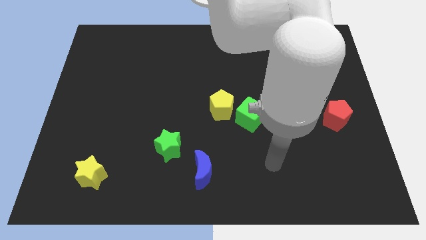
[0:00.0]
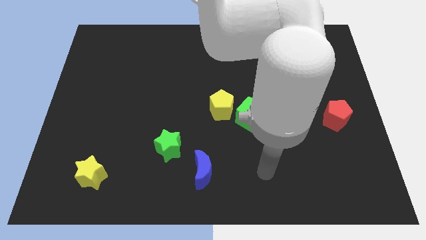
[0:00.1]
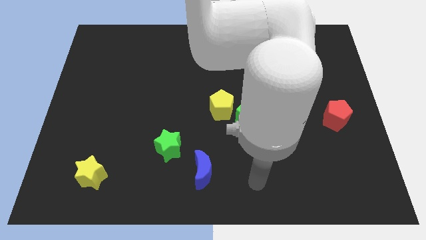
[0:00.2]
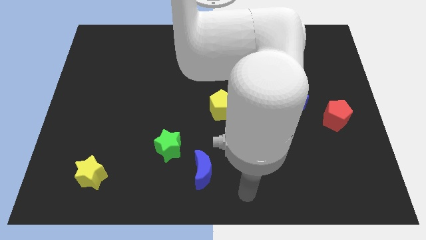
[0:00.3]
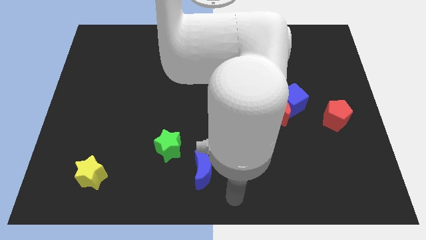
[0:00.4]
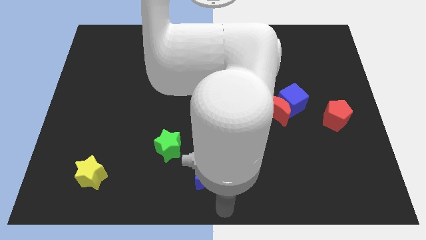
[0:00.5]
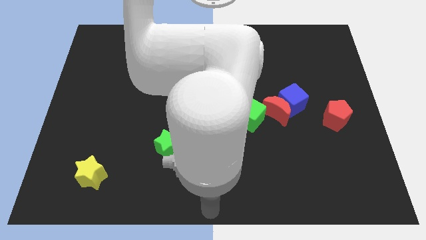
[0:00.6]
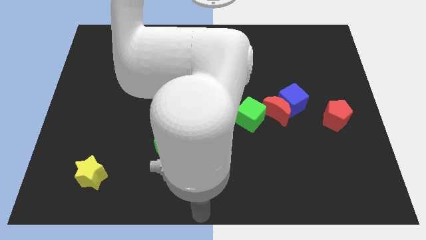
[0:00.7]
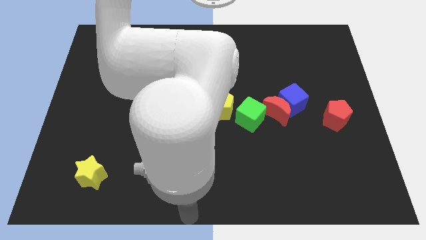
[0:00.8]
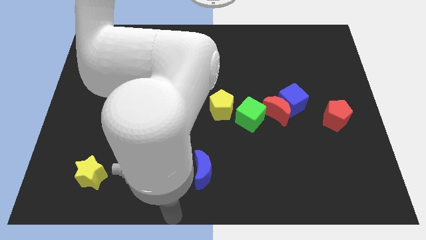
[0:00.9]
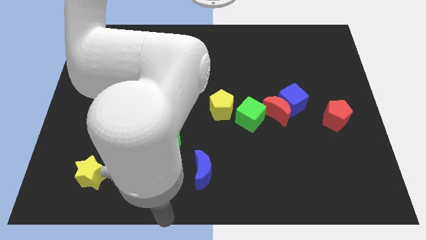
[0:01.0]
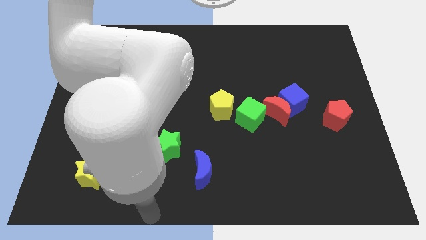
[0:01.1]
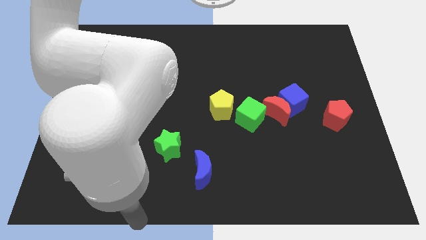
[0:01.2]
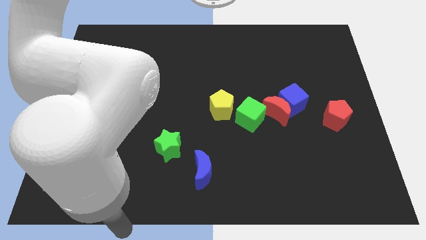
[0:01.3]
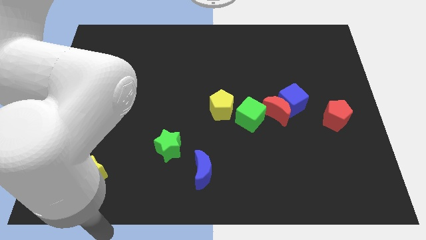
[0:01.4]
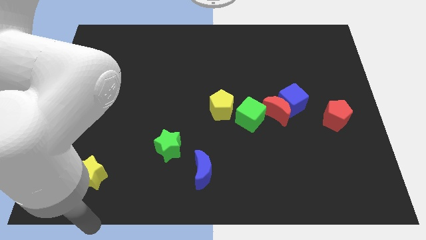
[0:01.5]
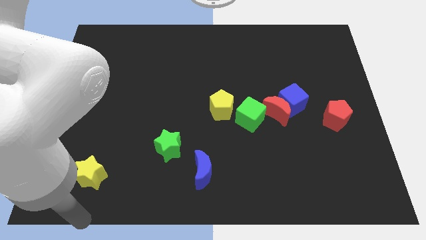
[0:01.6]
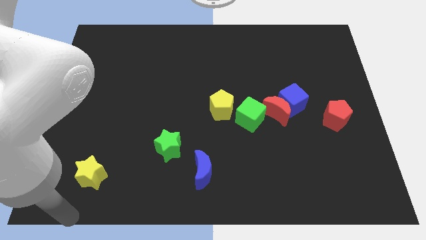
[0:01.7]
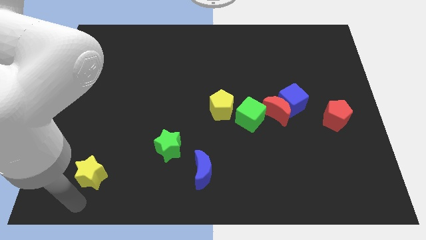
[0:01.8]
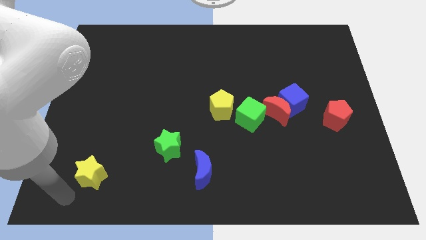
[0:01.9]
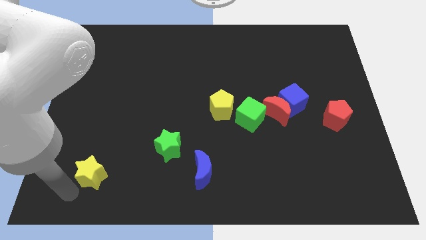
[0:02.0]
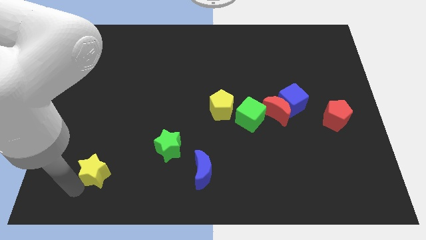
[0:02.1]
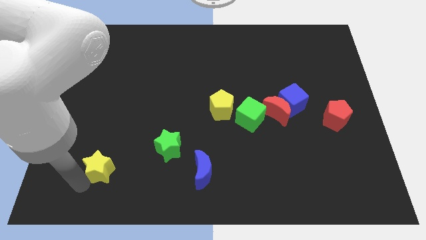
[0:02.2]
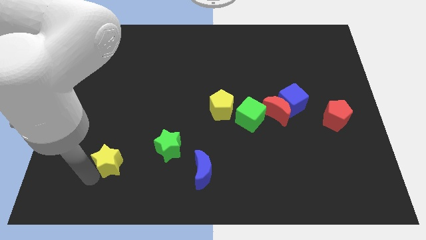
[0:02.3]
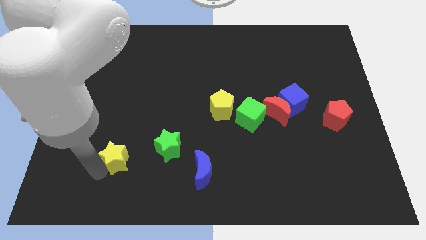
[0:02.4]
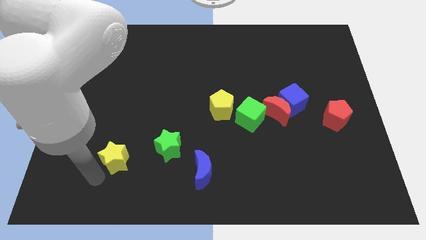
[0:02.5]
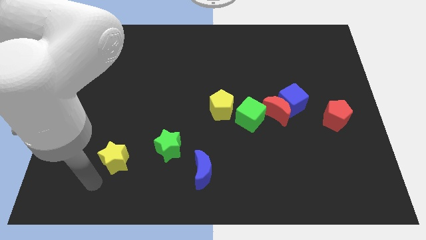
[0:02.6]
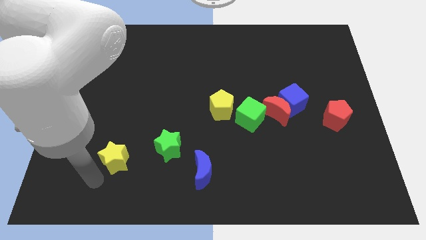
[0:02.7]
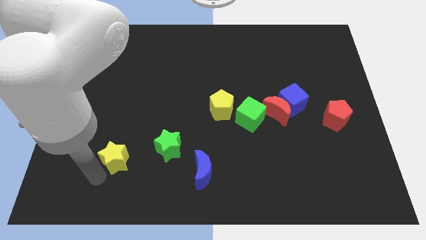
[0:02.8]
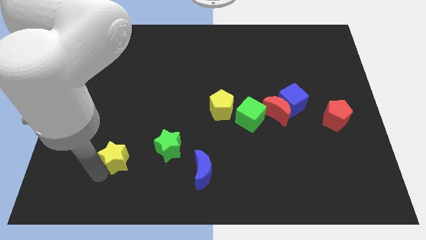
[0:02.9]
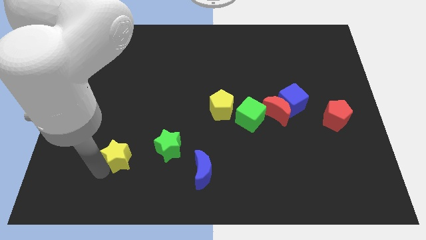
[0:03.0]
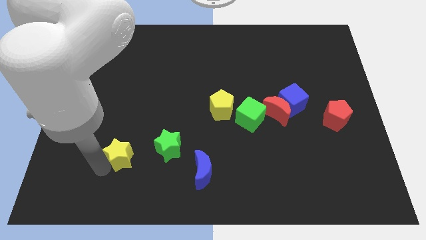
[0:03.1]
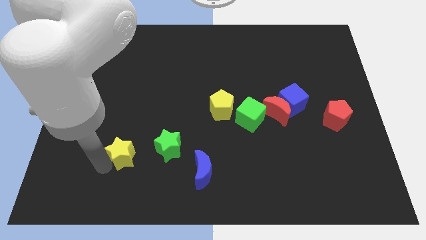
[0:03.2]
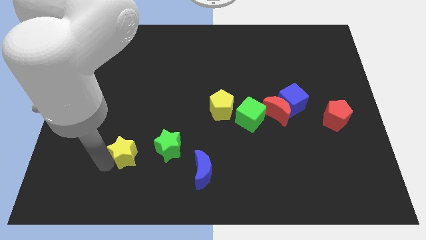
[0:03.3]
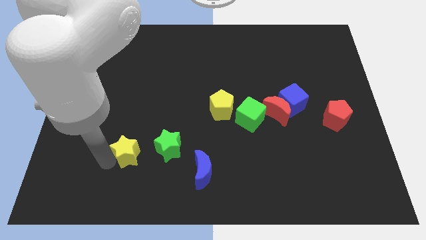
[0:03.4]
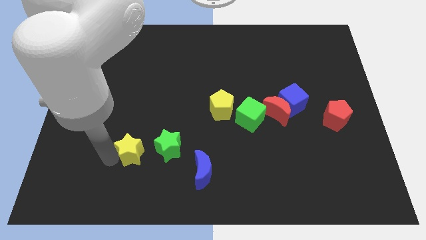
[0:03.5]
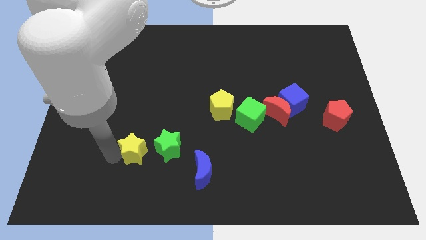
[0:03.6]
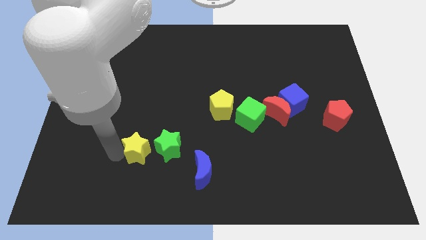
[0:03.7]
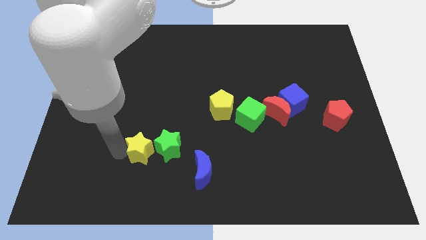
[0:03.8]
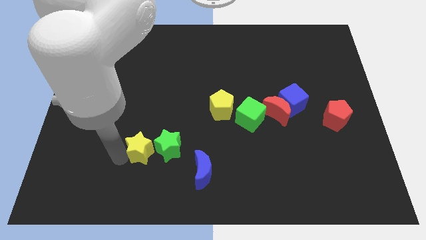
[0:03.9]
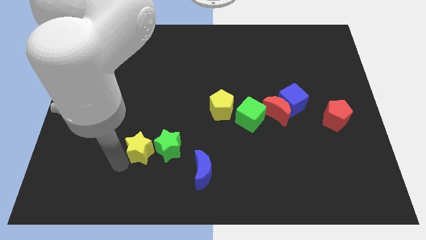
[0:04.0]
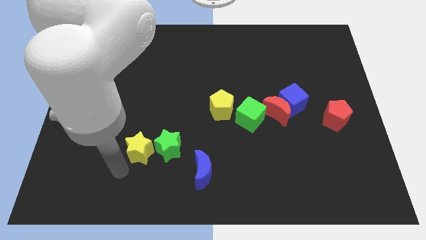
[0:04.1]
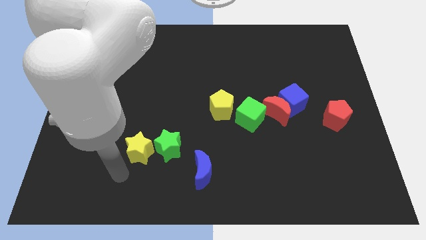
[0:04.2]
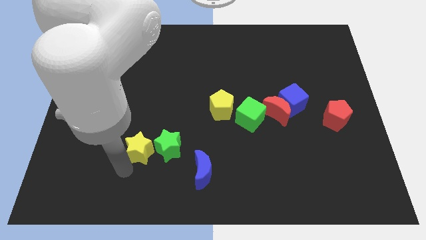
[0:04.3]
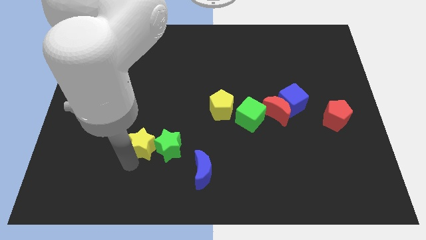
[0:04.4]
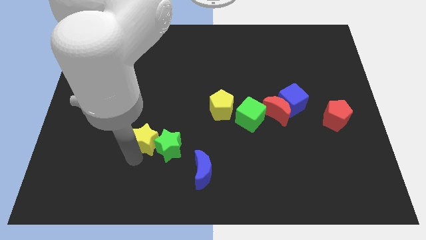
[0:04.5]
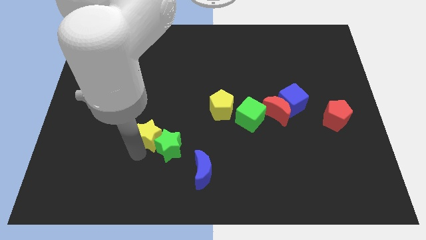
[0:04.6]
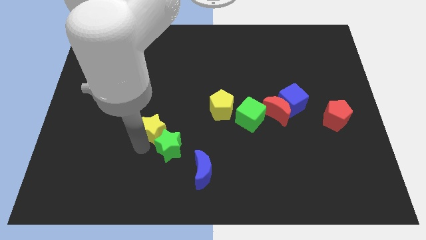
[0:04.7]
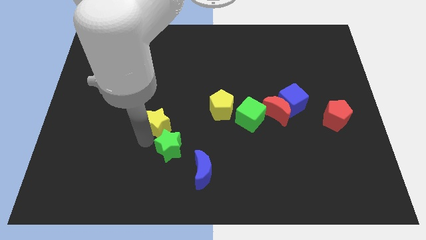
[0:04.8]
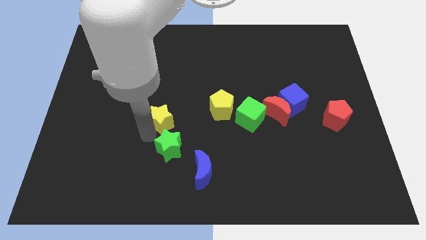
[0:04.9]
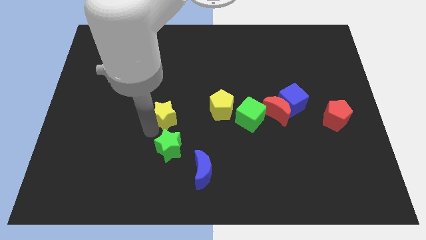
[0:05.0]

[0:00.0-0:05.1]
slide the yellow star diagonally up and right

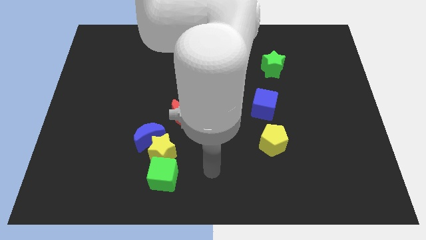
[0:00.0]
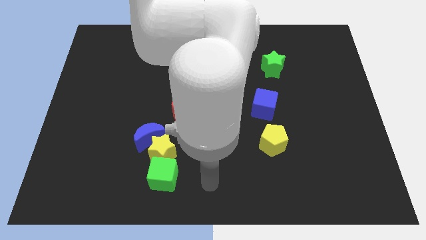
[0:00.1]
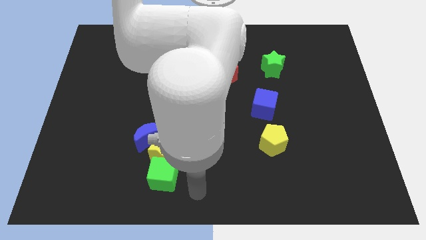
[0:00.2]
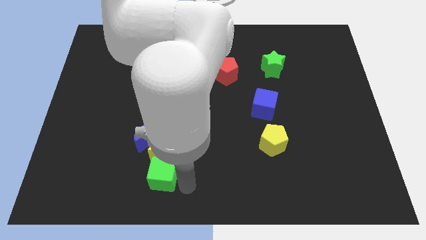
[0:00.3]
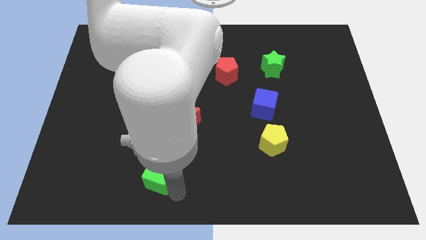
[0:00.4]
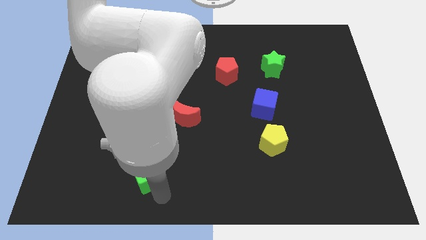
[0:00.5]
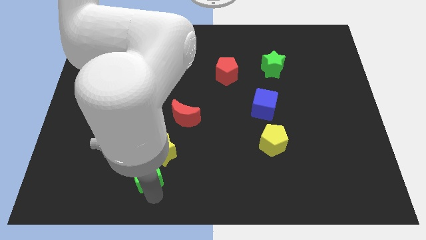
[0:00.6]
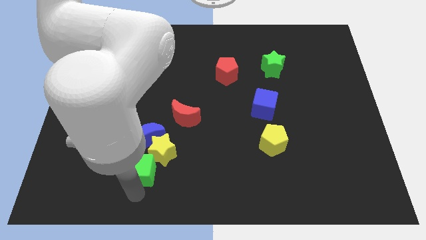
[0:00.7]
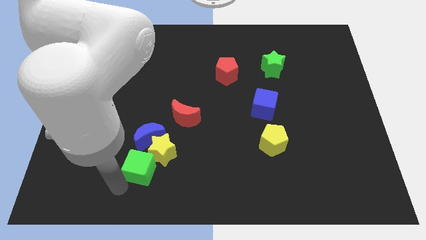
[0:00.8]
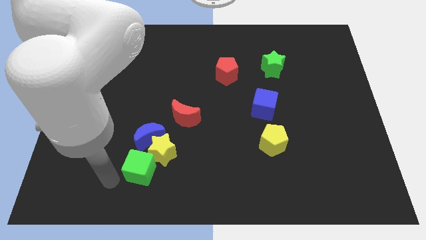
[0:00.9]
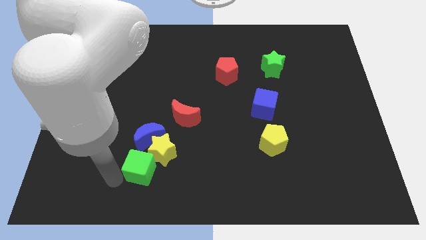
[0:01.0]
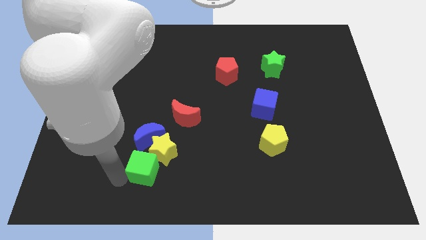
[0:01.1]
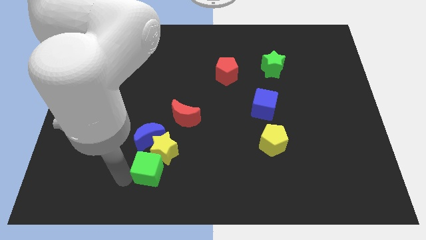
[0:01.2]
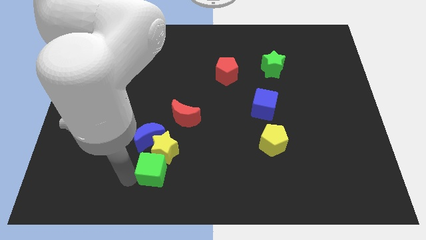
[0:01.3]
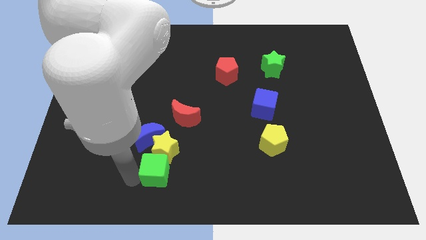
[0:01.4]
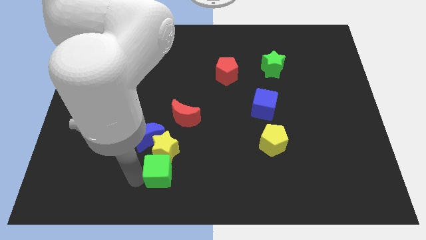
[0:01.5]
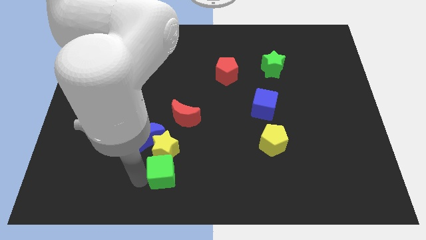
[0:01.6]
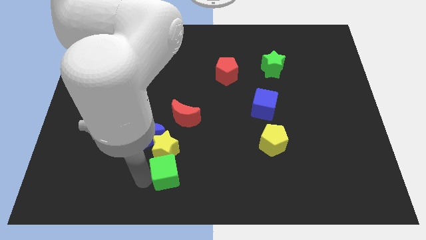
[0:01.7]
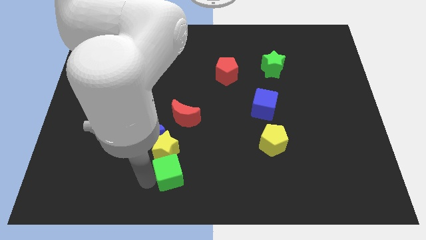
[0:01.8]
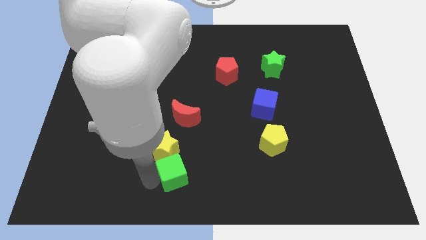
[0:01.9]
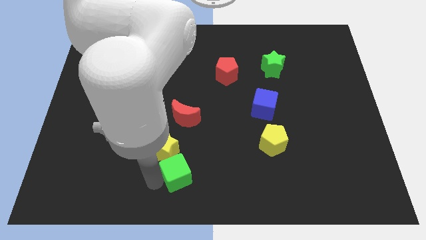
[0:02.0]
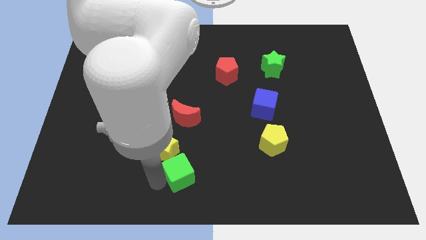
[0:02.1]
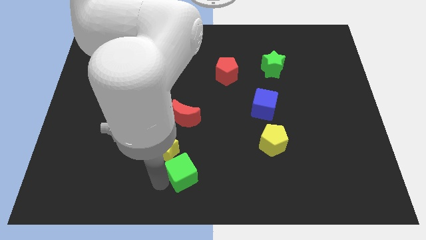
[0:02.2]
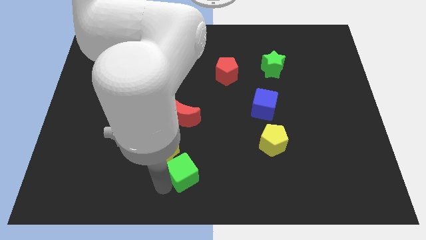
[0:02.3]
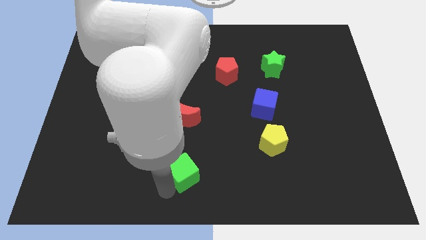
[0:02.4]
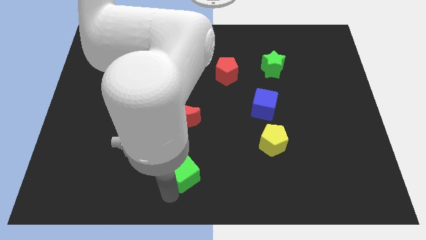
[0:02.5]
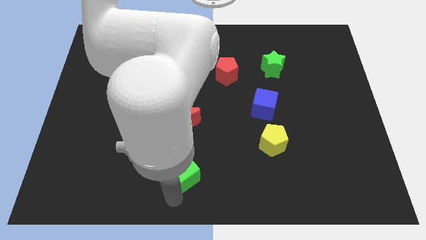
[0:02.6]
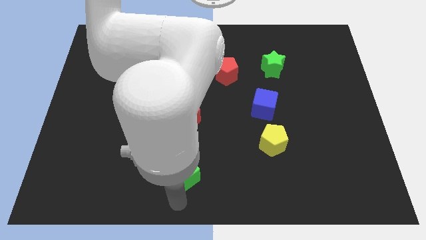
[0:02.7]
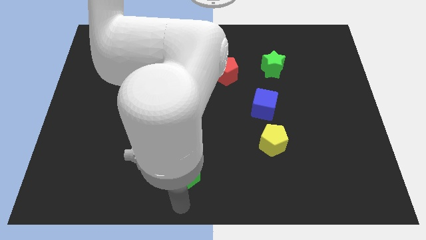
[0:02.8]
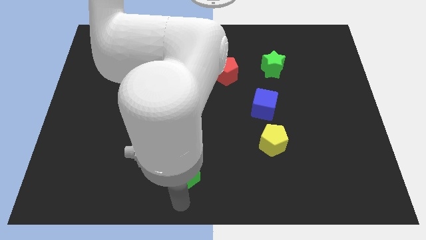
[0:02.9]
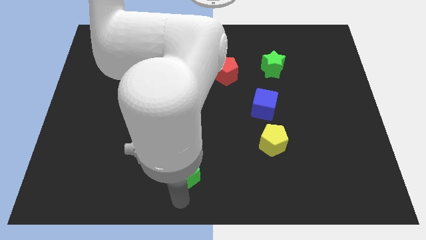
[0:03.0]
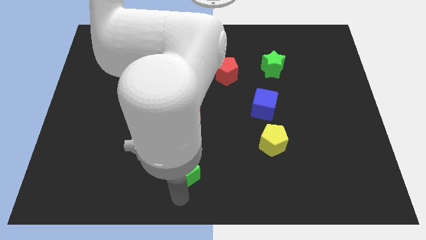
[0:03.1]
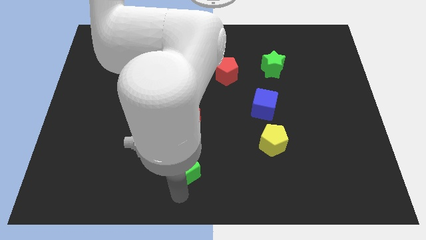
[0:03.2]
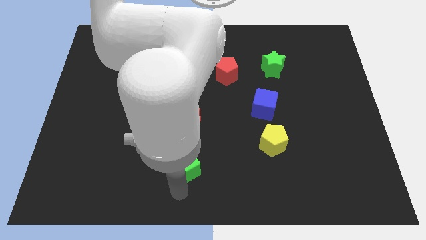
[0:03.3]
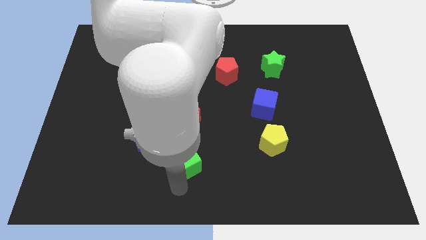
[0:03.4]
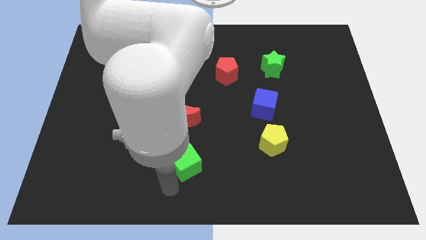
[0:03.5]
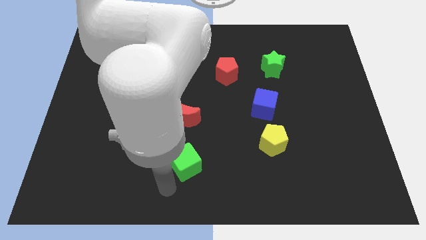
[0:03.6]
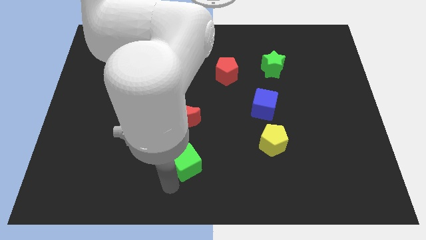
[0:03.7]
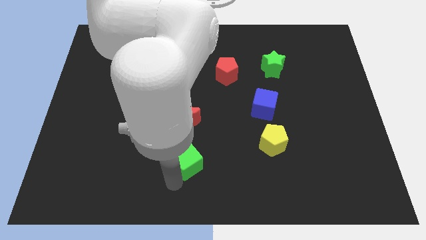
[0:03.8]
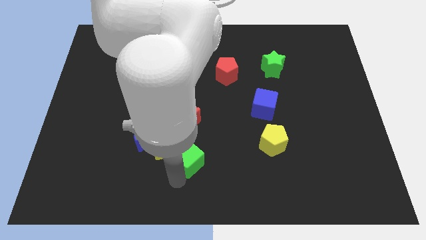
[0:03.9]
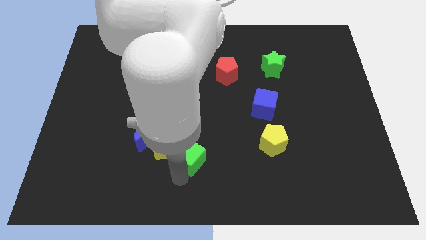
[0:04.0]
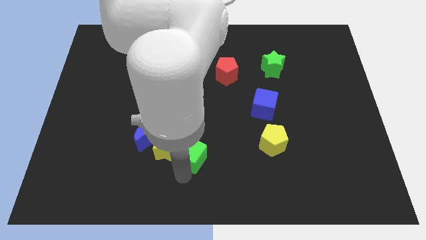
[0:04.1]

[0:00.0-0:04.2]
move the green cube upwards and to the right somewhat
